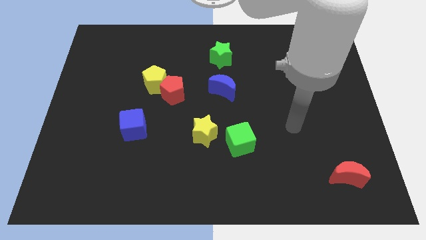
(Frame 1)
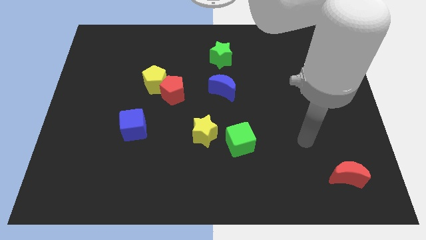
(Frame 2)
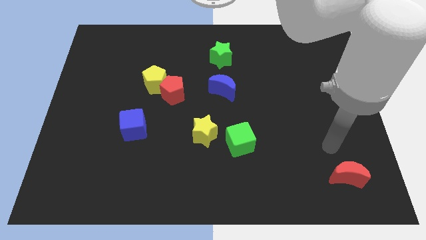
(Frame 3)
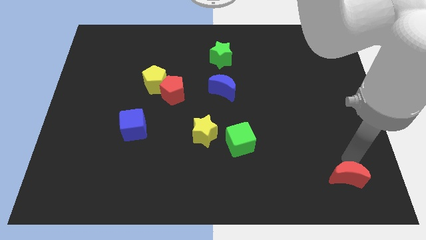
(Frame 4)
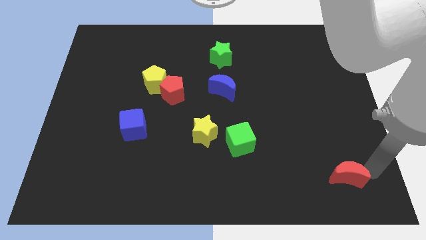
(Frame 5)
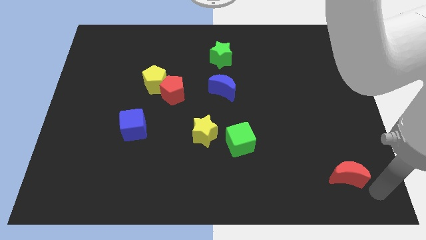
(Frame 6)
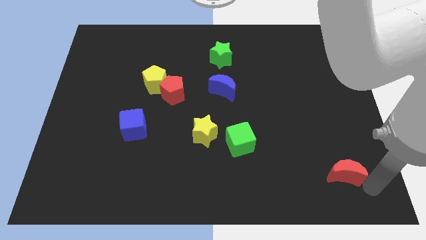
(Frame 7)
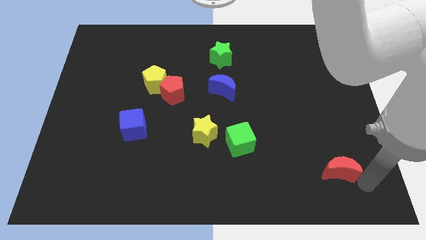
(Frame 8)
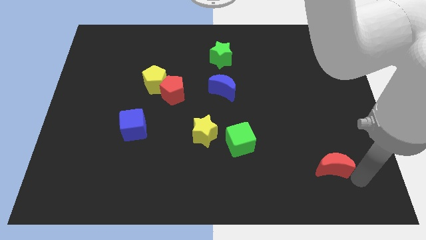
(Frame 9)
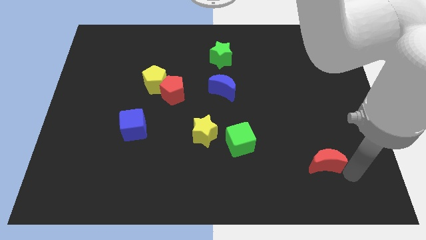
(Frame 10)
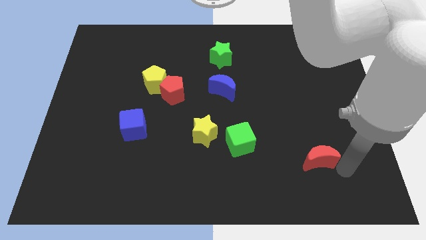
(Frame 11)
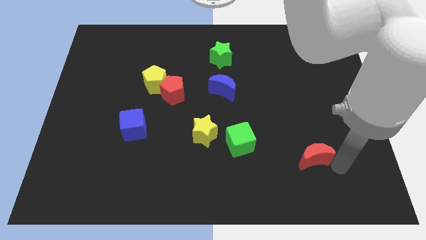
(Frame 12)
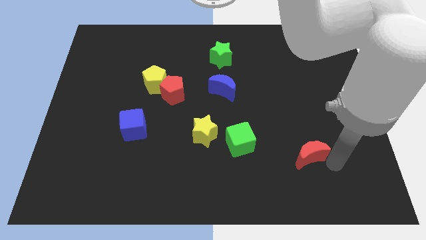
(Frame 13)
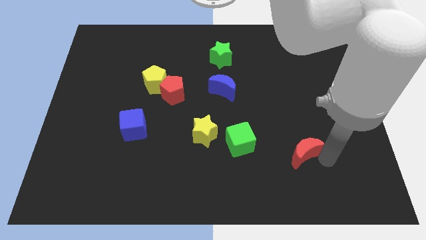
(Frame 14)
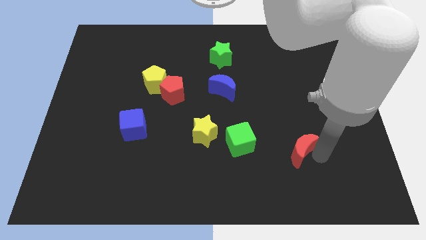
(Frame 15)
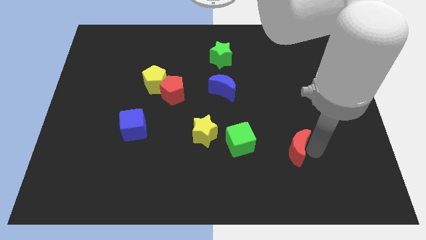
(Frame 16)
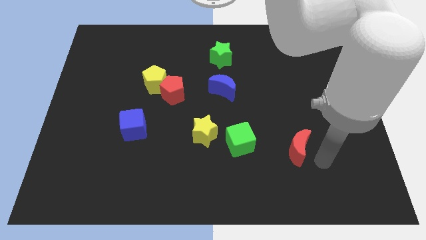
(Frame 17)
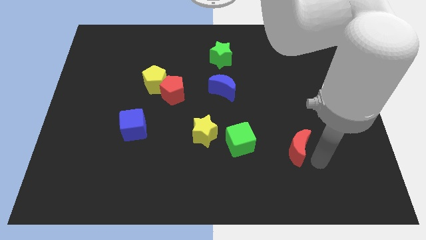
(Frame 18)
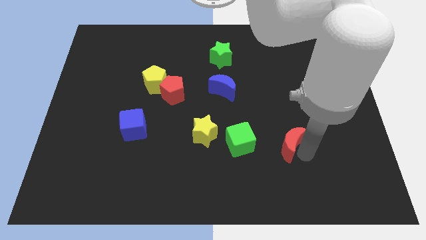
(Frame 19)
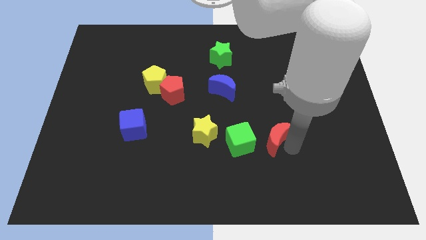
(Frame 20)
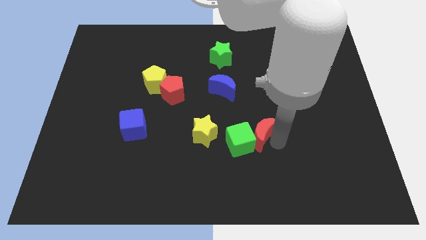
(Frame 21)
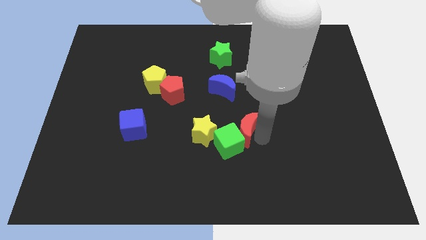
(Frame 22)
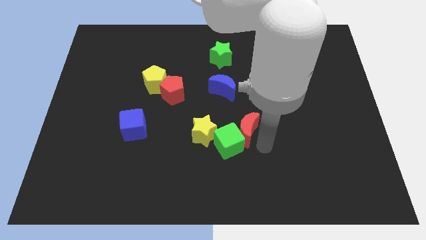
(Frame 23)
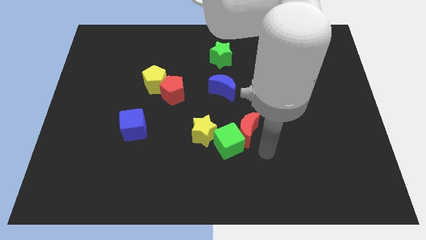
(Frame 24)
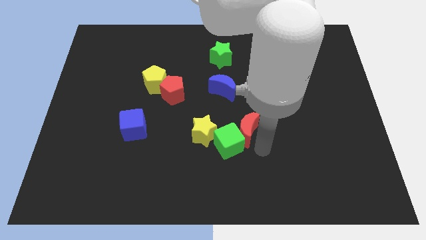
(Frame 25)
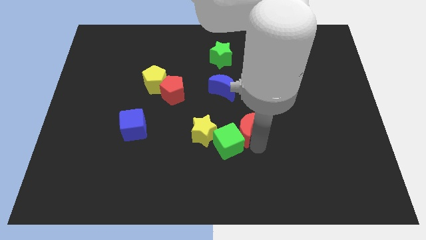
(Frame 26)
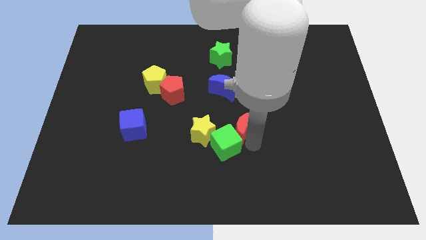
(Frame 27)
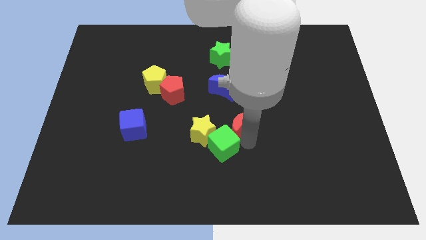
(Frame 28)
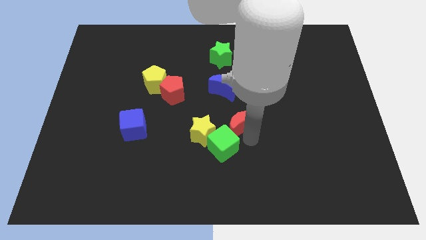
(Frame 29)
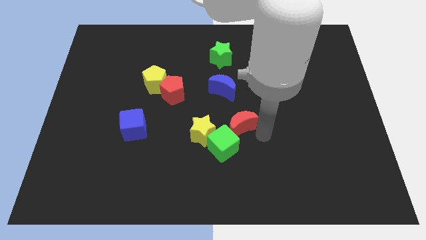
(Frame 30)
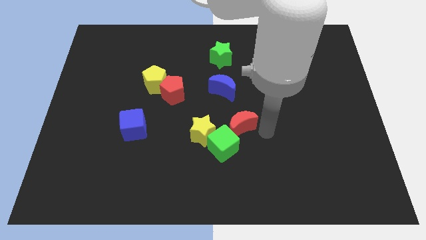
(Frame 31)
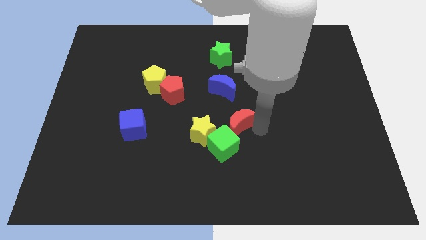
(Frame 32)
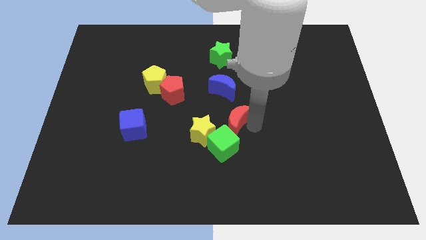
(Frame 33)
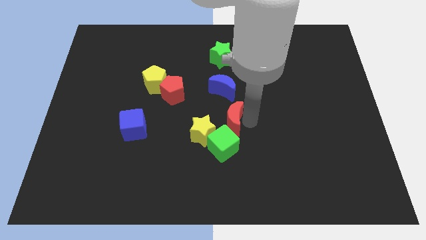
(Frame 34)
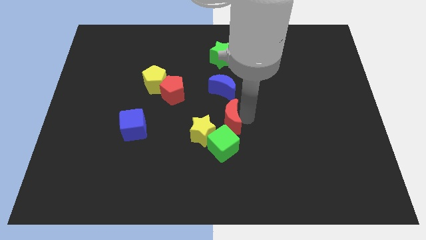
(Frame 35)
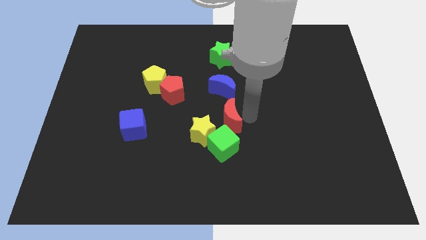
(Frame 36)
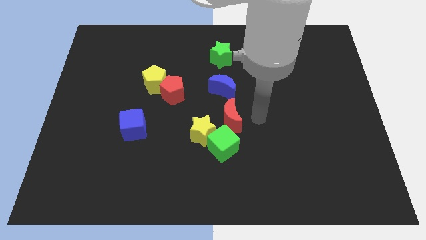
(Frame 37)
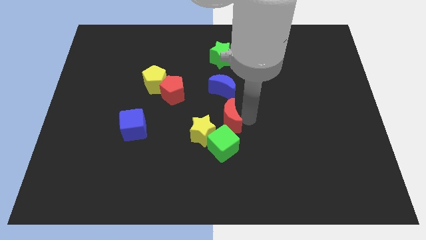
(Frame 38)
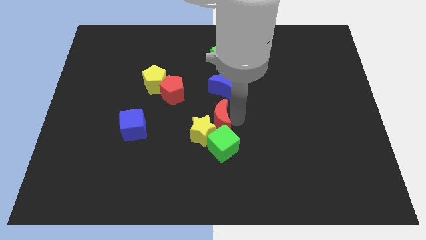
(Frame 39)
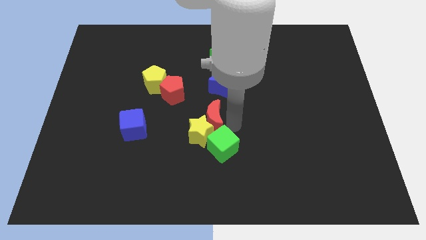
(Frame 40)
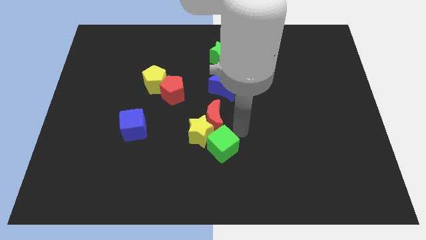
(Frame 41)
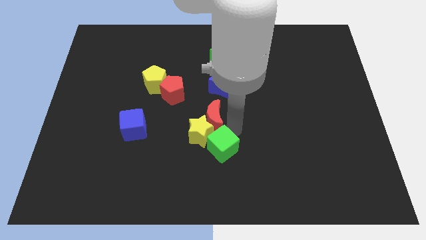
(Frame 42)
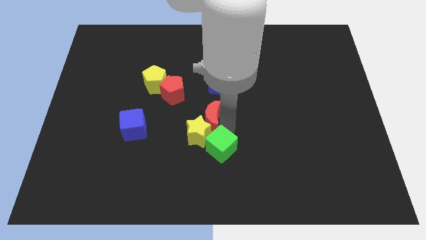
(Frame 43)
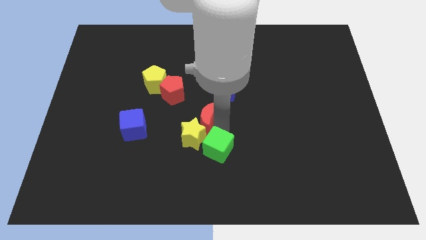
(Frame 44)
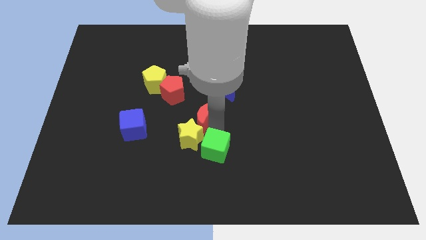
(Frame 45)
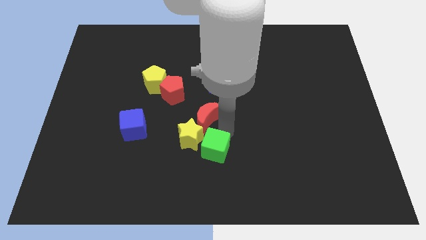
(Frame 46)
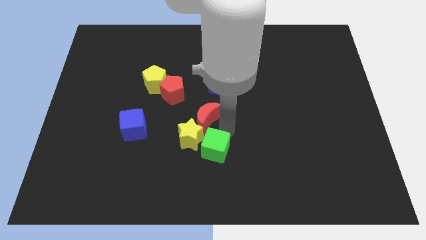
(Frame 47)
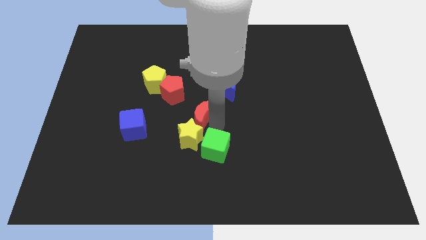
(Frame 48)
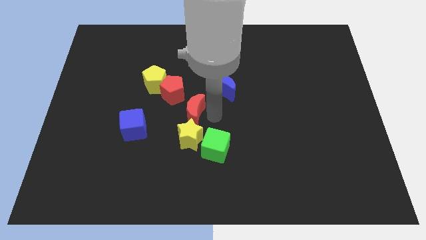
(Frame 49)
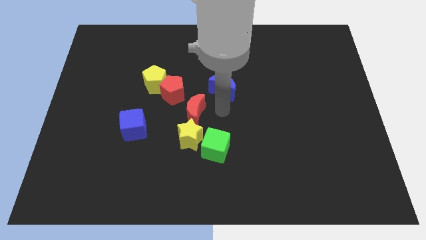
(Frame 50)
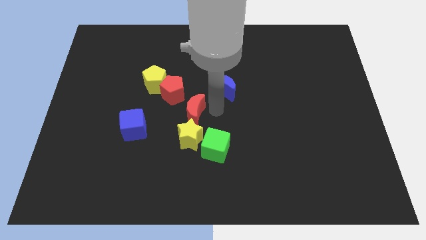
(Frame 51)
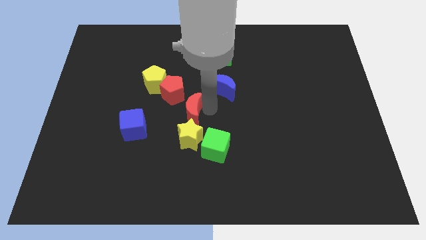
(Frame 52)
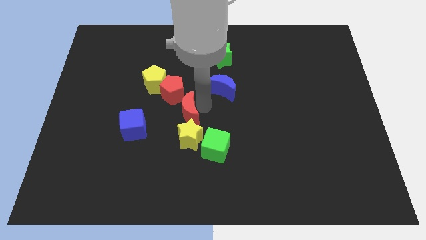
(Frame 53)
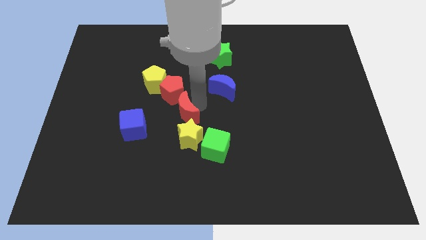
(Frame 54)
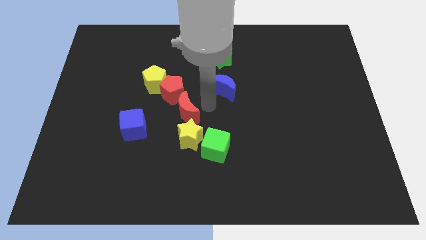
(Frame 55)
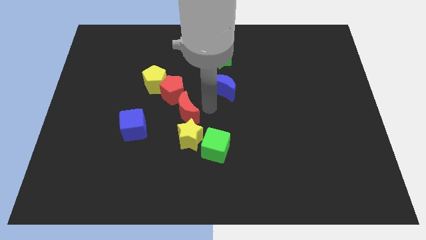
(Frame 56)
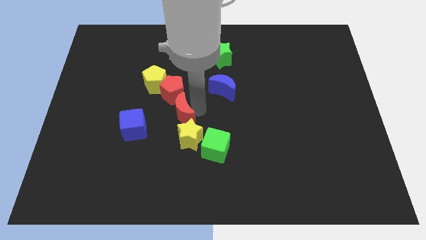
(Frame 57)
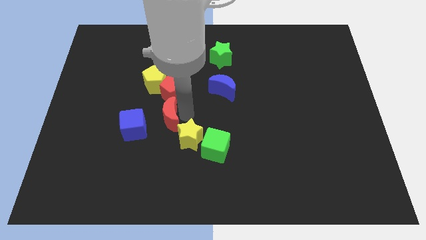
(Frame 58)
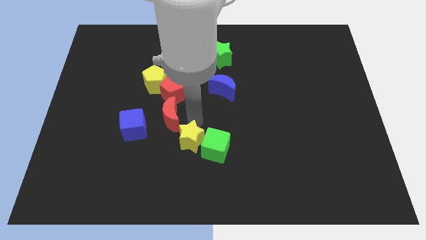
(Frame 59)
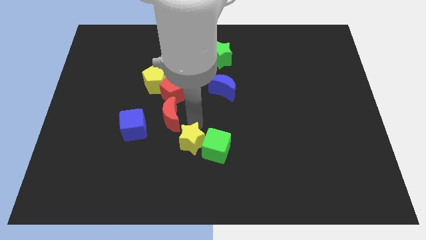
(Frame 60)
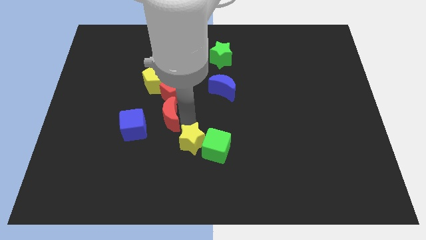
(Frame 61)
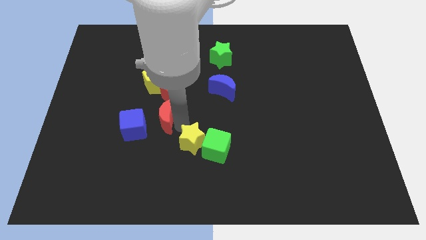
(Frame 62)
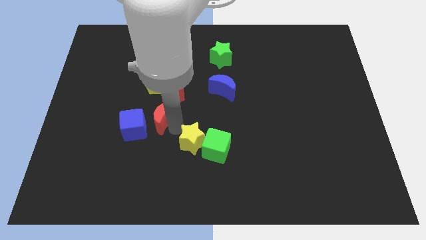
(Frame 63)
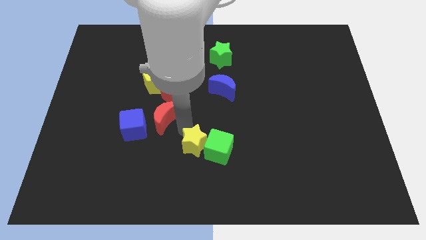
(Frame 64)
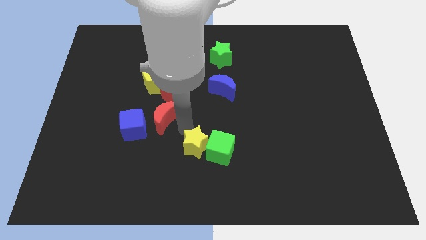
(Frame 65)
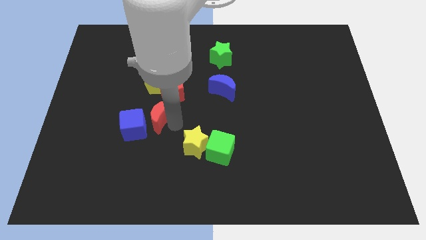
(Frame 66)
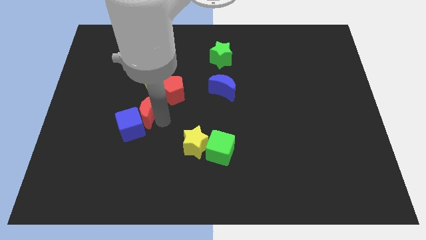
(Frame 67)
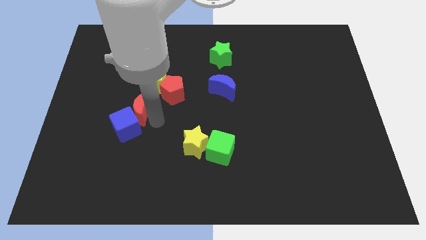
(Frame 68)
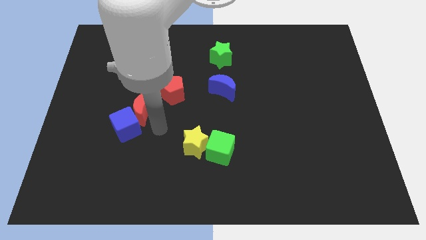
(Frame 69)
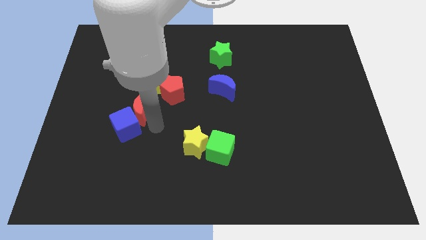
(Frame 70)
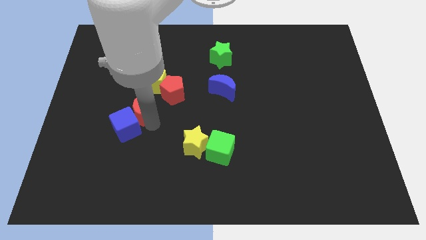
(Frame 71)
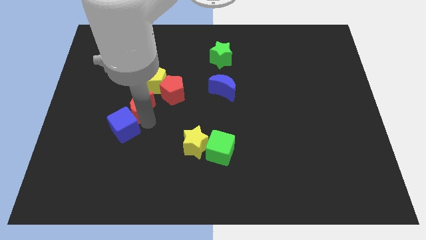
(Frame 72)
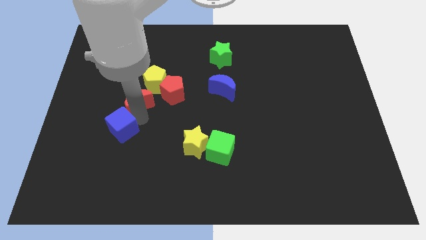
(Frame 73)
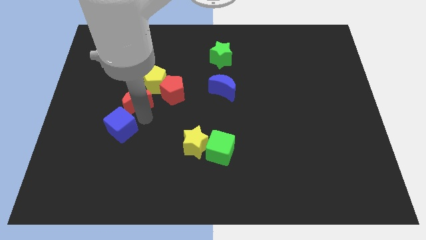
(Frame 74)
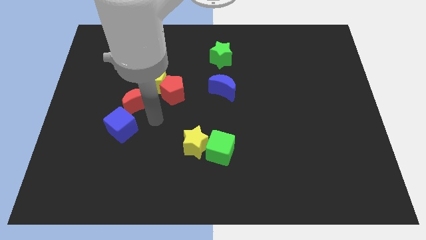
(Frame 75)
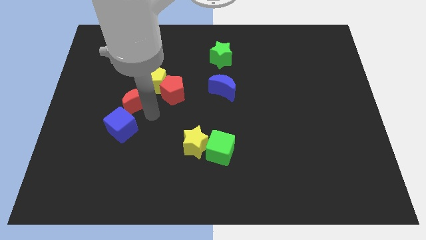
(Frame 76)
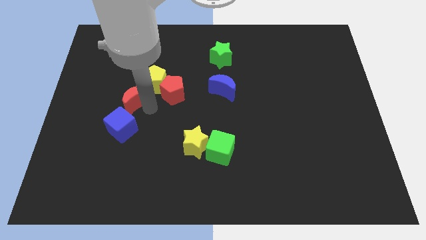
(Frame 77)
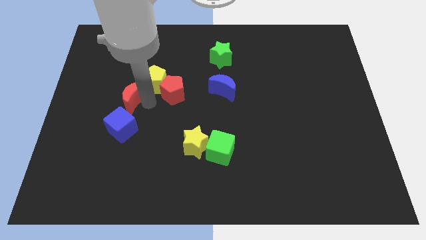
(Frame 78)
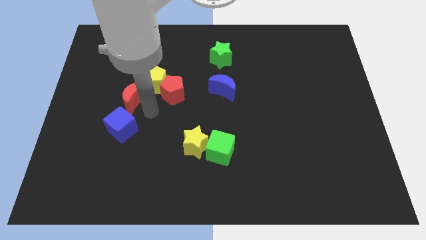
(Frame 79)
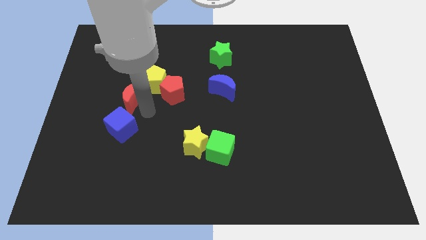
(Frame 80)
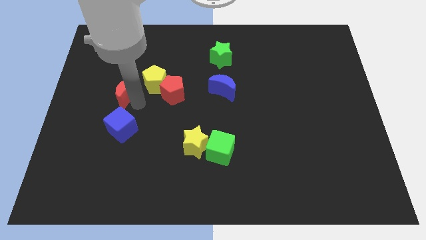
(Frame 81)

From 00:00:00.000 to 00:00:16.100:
slide the red moon just left of the yellow pentagon
